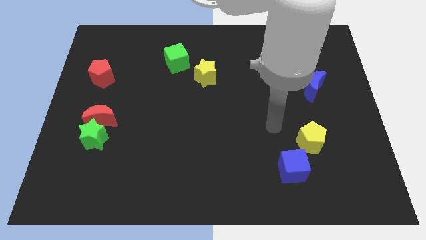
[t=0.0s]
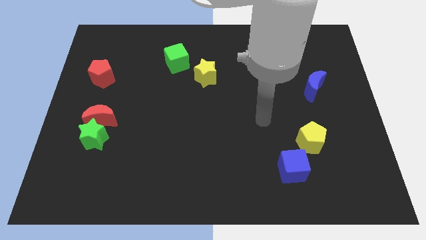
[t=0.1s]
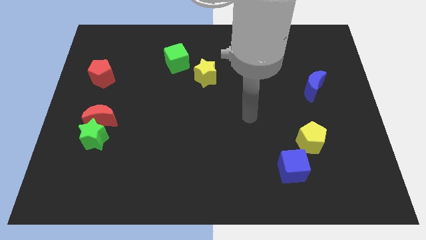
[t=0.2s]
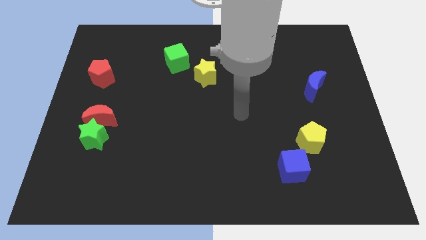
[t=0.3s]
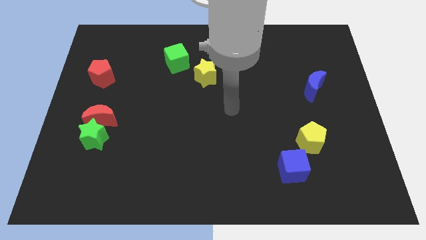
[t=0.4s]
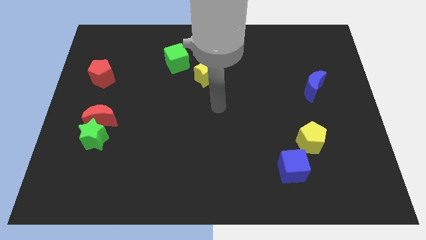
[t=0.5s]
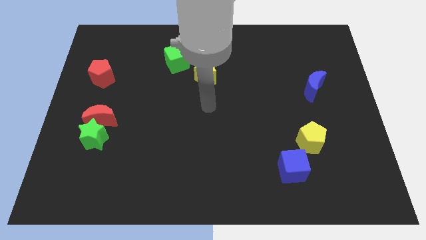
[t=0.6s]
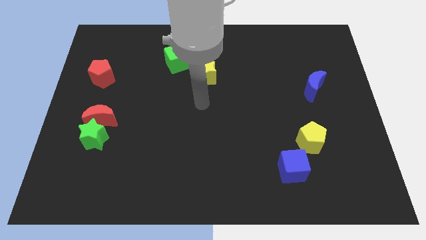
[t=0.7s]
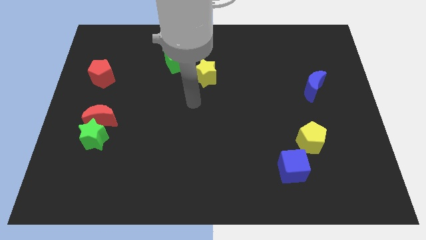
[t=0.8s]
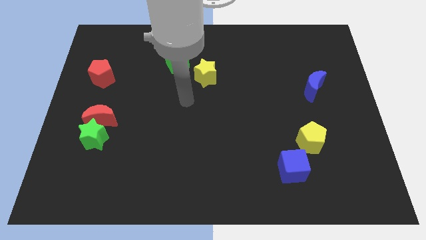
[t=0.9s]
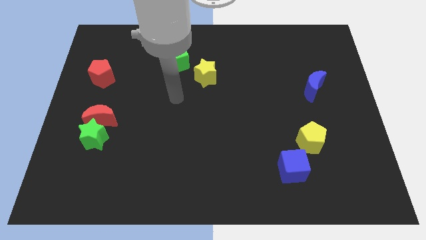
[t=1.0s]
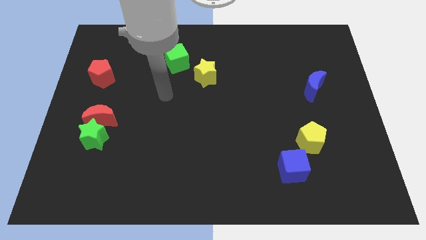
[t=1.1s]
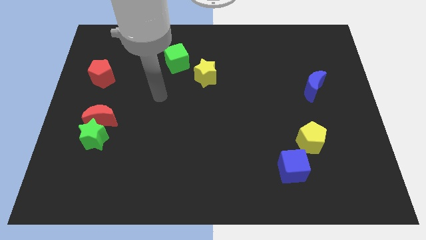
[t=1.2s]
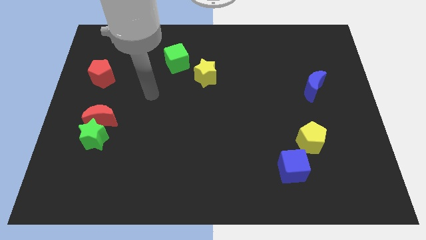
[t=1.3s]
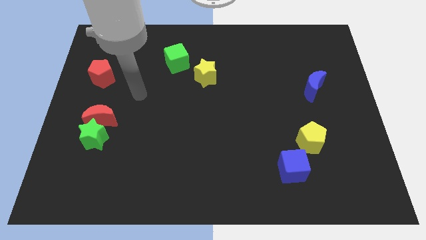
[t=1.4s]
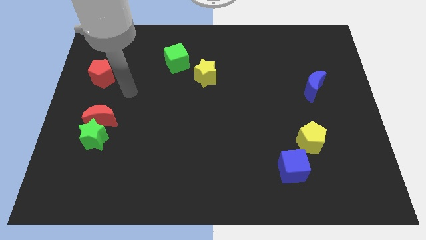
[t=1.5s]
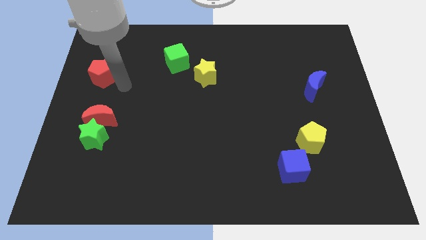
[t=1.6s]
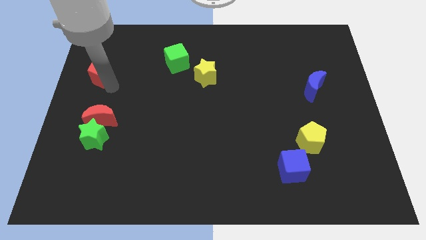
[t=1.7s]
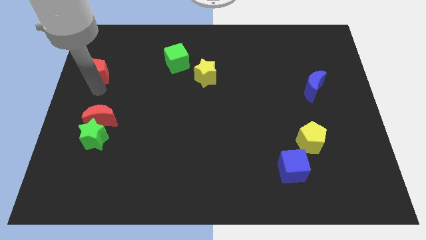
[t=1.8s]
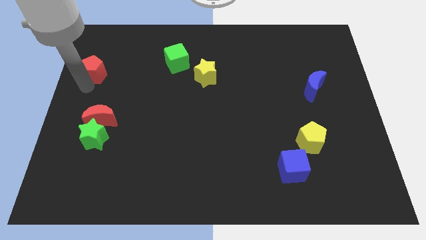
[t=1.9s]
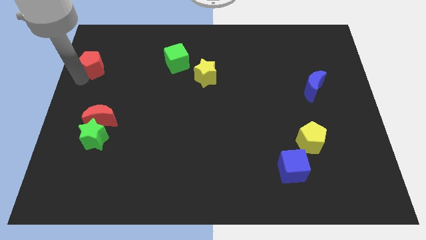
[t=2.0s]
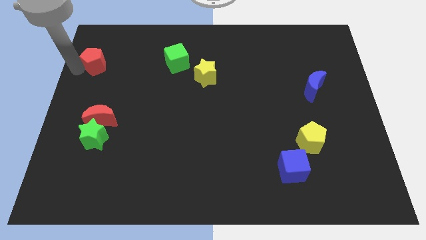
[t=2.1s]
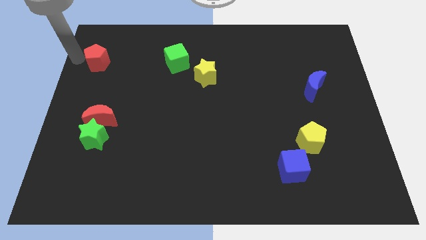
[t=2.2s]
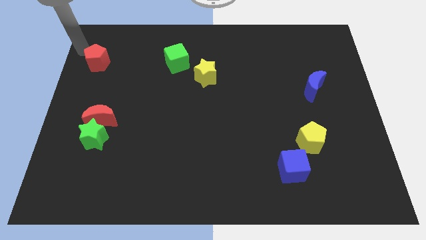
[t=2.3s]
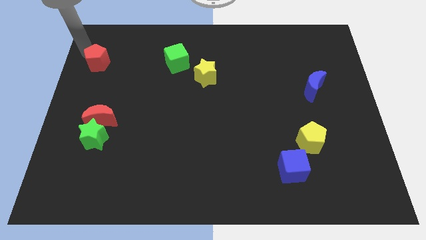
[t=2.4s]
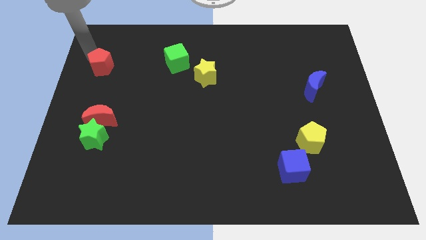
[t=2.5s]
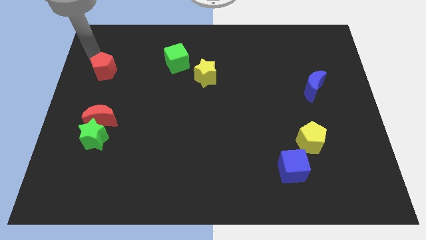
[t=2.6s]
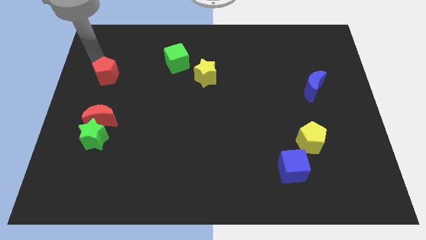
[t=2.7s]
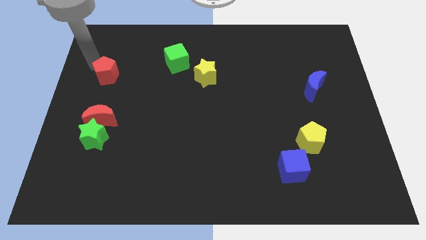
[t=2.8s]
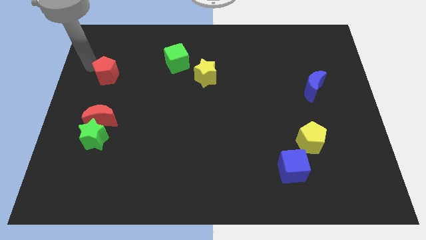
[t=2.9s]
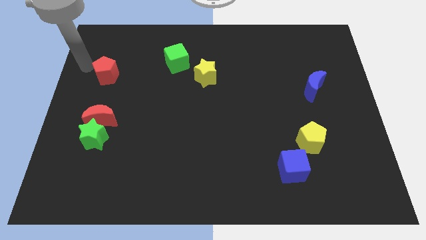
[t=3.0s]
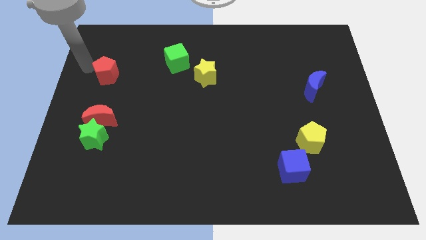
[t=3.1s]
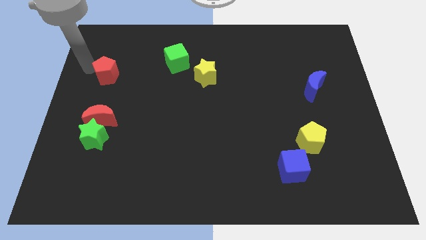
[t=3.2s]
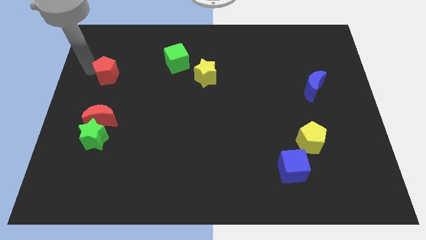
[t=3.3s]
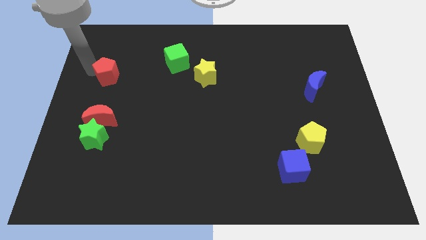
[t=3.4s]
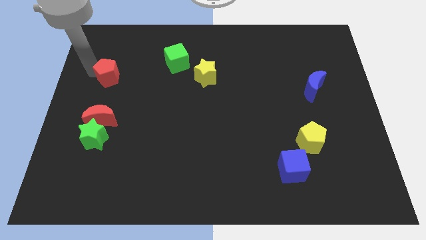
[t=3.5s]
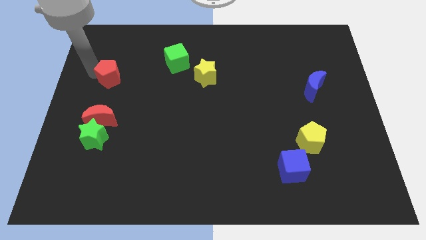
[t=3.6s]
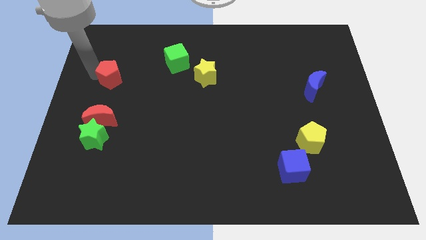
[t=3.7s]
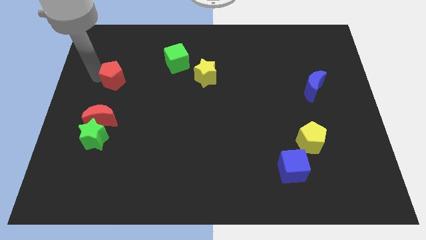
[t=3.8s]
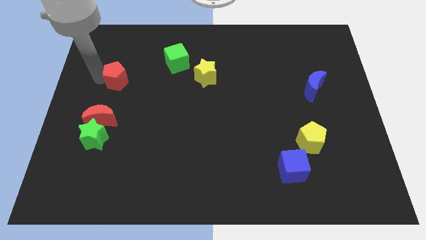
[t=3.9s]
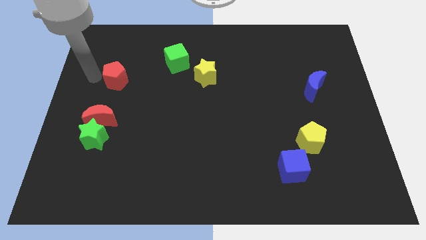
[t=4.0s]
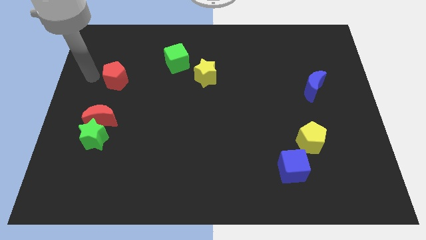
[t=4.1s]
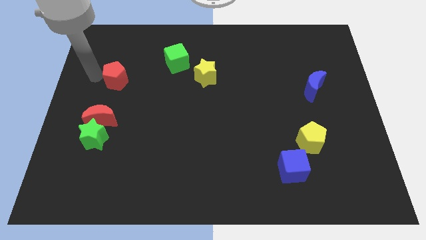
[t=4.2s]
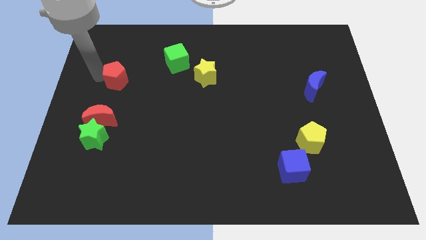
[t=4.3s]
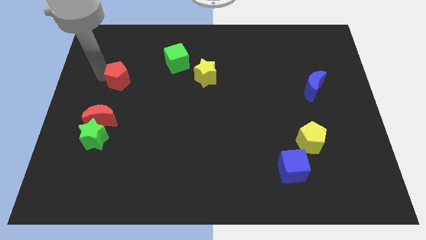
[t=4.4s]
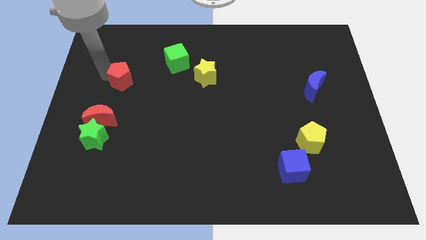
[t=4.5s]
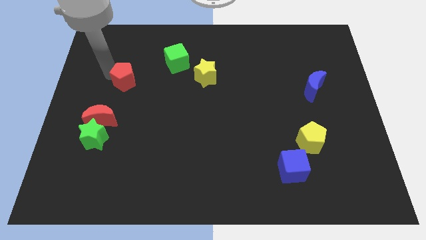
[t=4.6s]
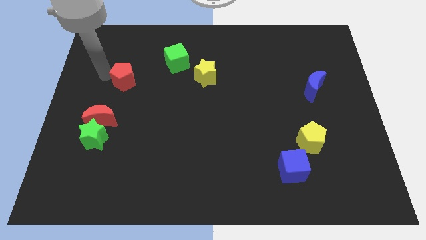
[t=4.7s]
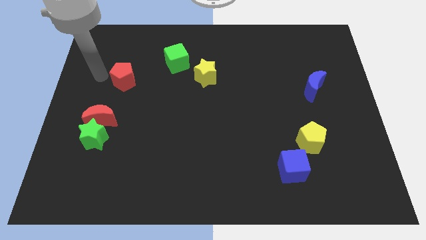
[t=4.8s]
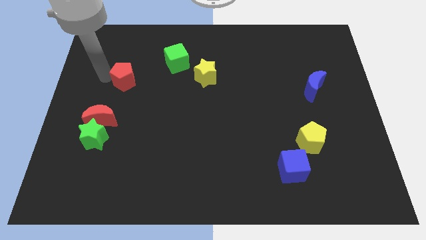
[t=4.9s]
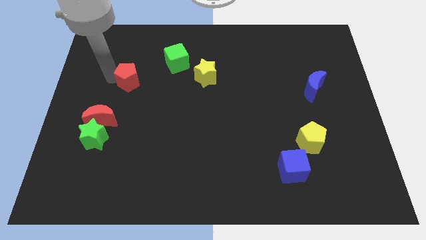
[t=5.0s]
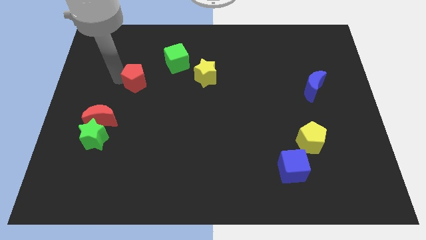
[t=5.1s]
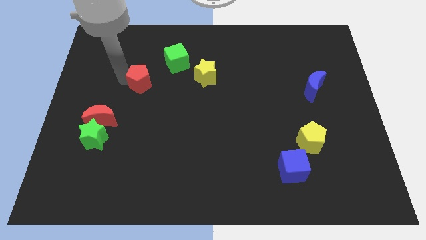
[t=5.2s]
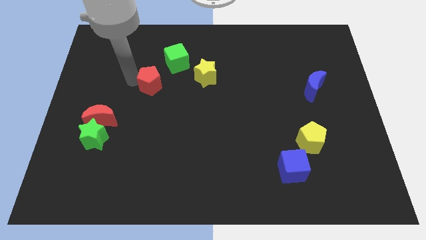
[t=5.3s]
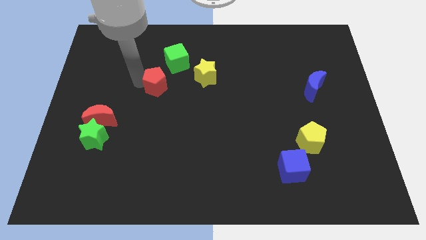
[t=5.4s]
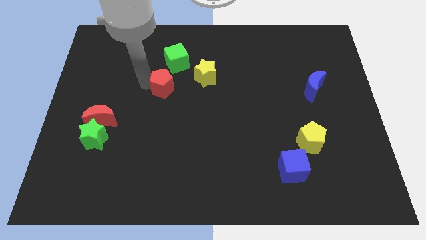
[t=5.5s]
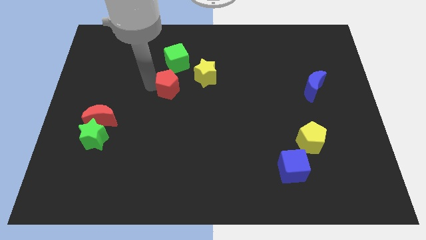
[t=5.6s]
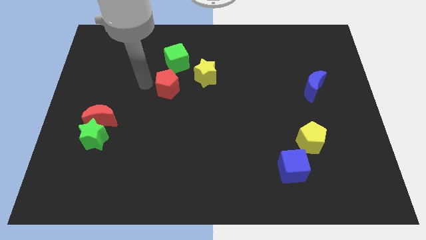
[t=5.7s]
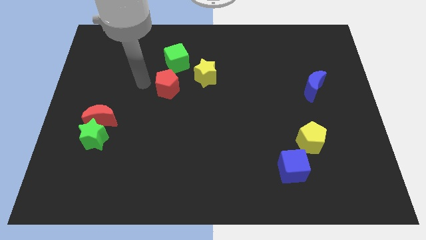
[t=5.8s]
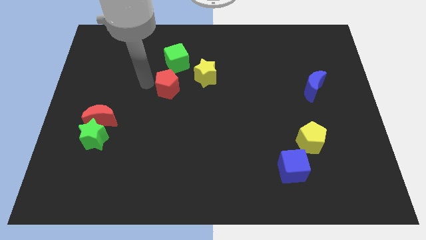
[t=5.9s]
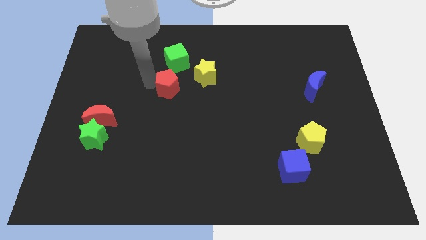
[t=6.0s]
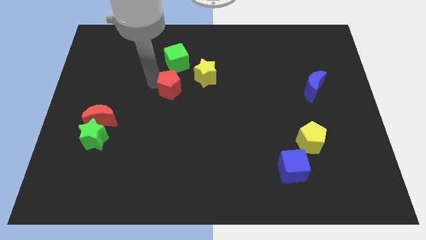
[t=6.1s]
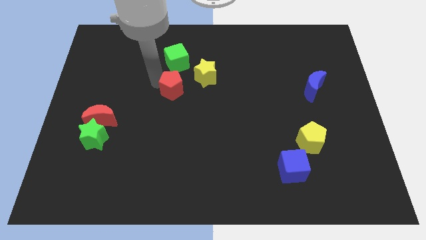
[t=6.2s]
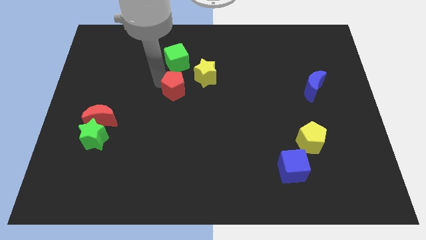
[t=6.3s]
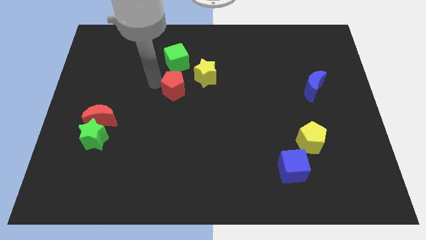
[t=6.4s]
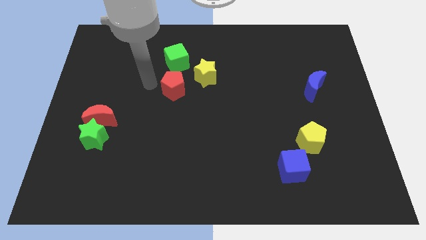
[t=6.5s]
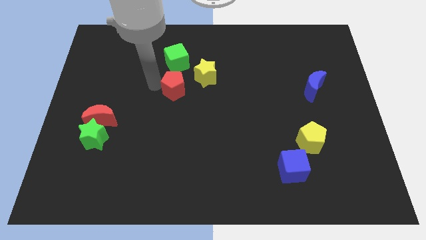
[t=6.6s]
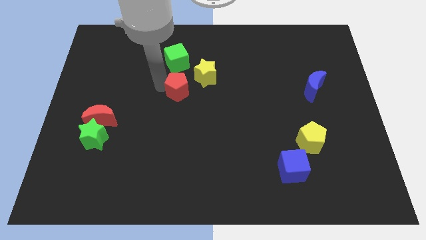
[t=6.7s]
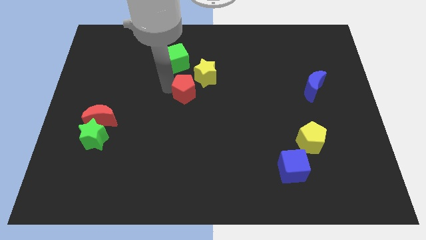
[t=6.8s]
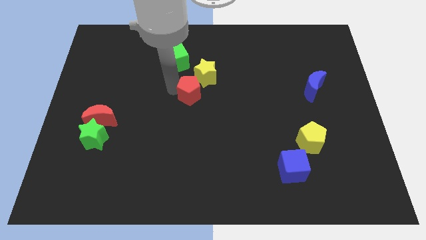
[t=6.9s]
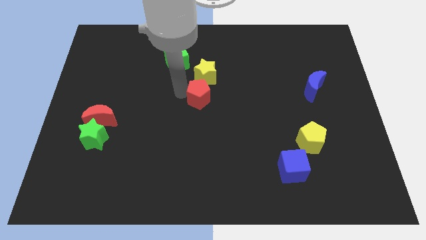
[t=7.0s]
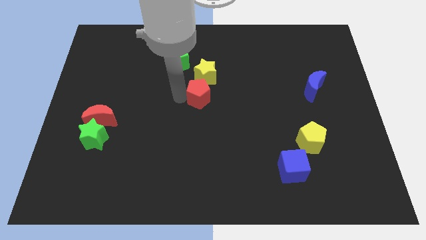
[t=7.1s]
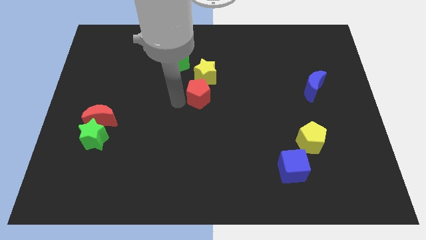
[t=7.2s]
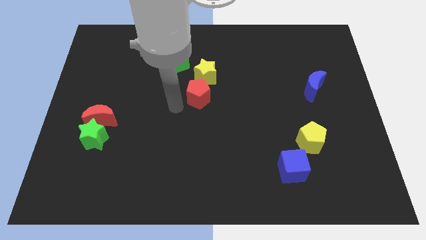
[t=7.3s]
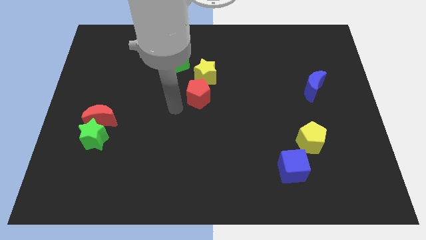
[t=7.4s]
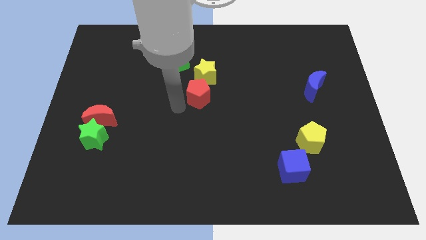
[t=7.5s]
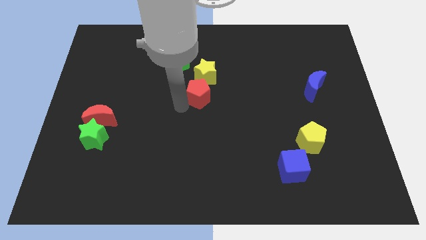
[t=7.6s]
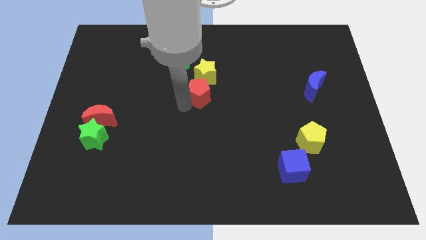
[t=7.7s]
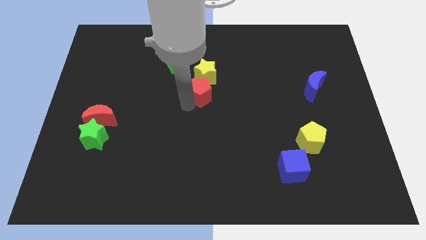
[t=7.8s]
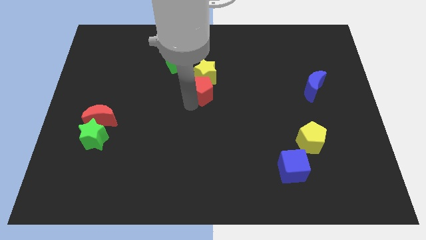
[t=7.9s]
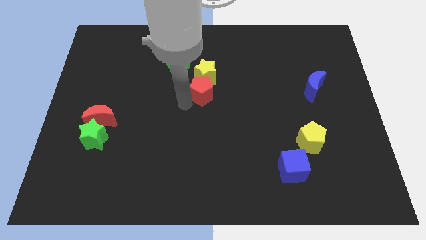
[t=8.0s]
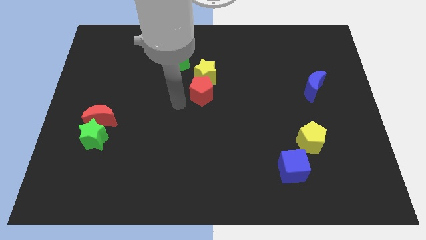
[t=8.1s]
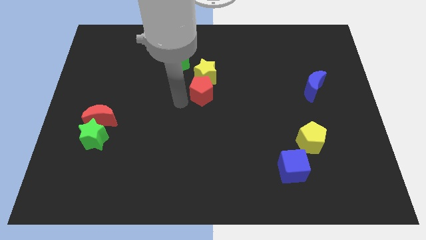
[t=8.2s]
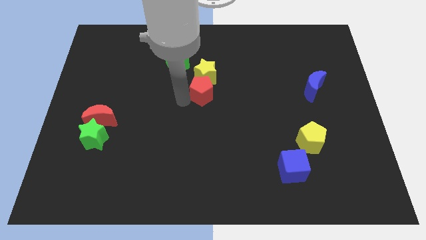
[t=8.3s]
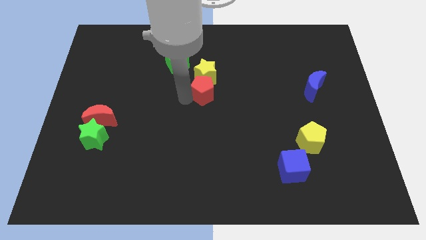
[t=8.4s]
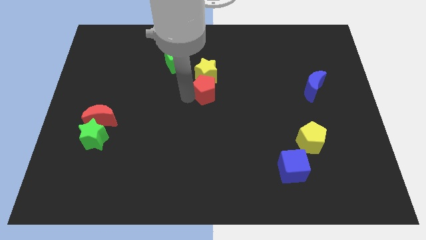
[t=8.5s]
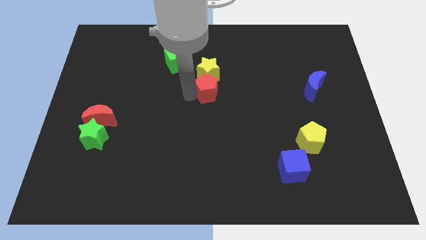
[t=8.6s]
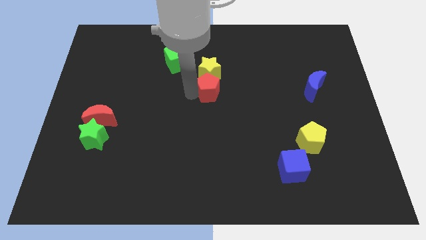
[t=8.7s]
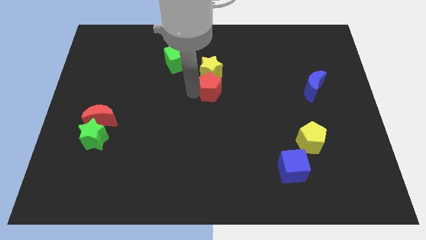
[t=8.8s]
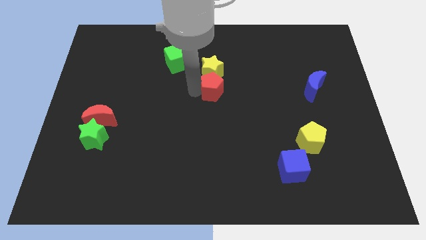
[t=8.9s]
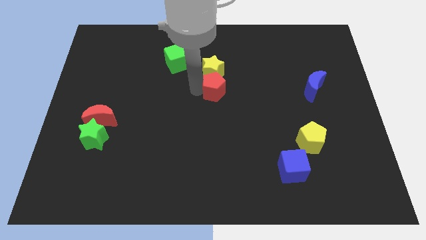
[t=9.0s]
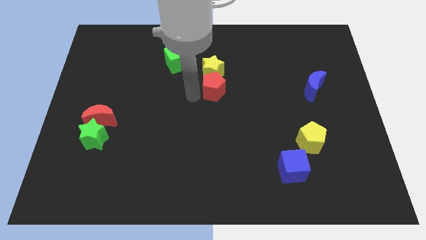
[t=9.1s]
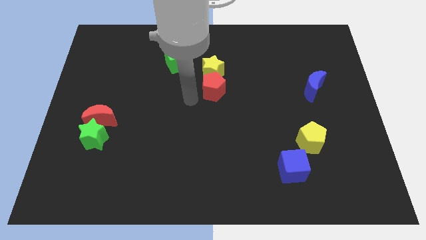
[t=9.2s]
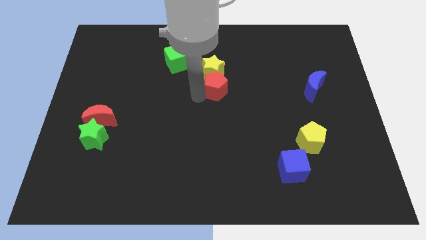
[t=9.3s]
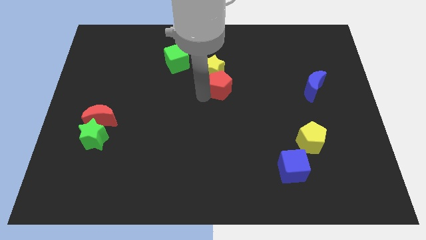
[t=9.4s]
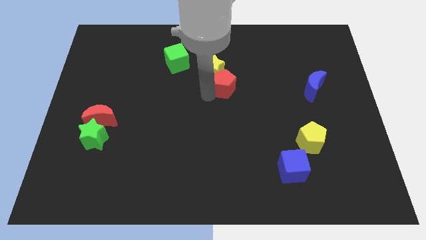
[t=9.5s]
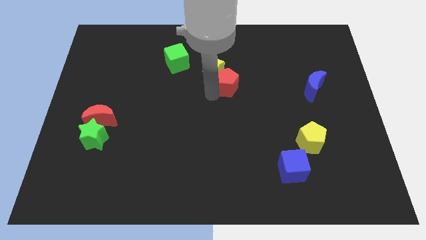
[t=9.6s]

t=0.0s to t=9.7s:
move the red pentagon right of the yellow star
